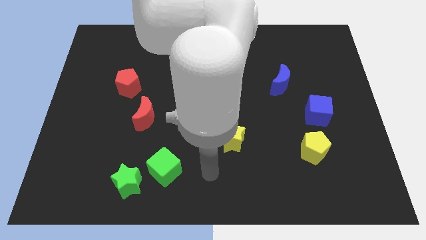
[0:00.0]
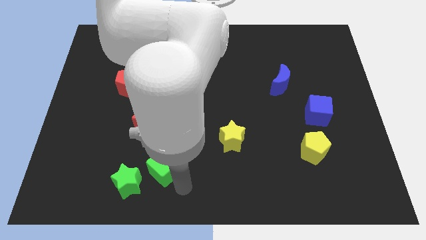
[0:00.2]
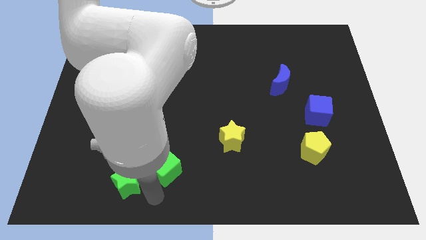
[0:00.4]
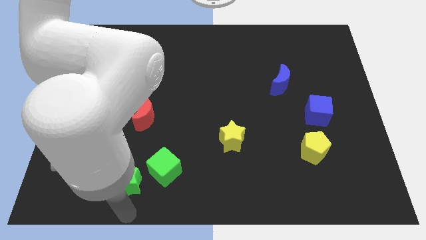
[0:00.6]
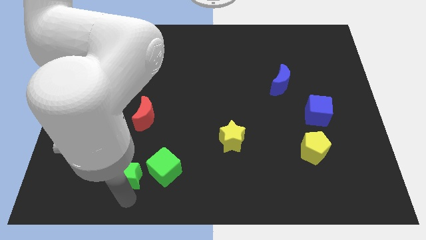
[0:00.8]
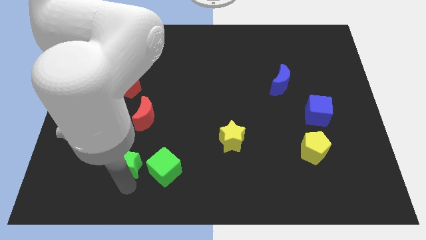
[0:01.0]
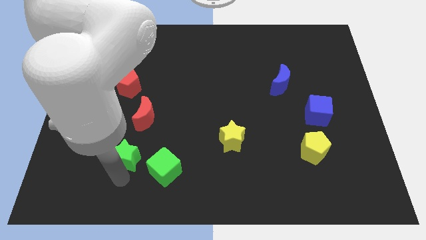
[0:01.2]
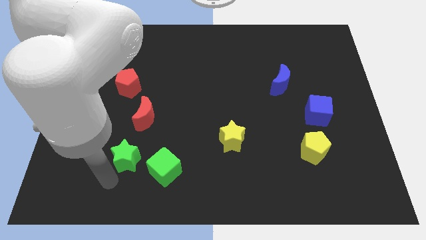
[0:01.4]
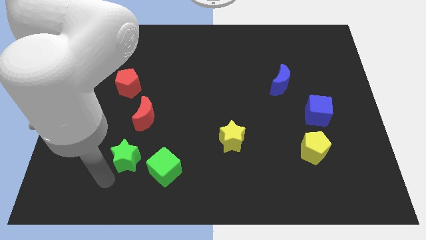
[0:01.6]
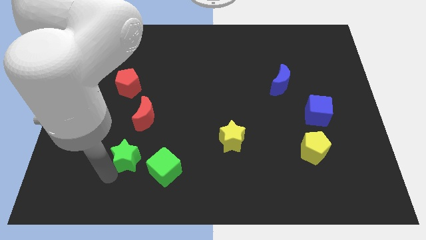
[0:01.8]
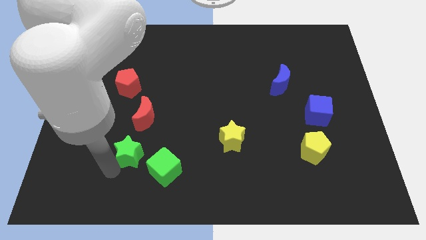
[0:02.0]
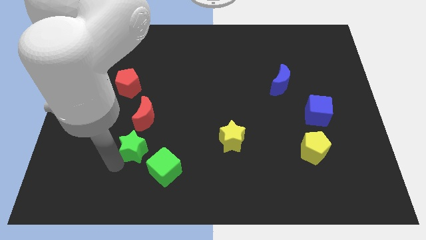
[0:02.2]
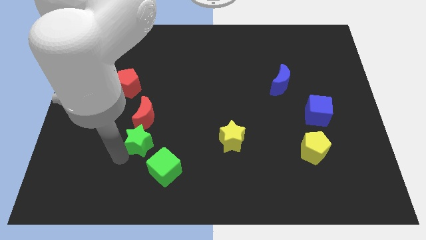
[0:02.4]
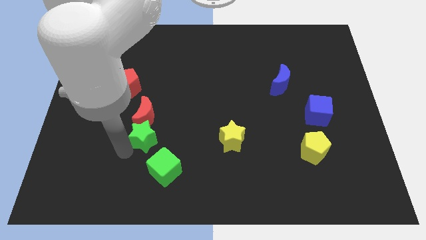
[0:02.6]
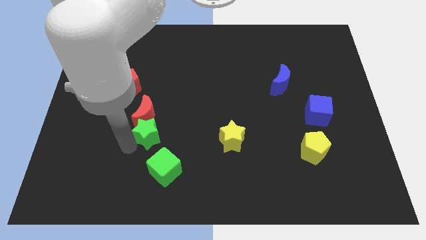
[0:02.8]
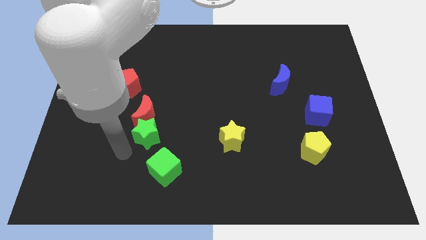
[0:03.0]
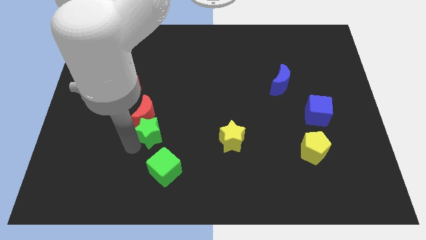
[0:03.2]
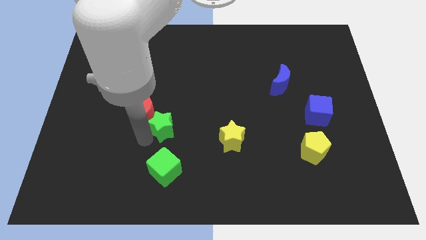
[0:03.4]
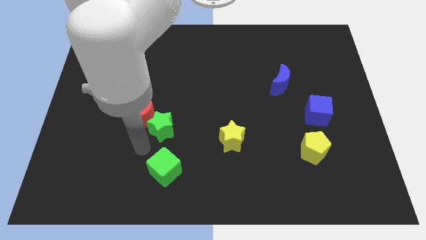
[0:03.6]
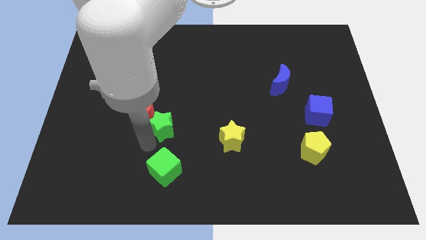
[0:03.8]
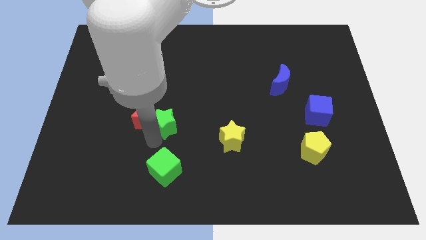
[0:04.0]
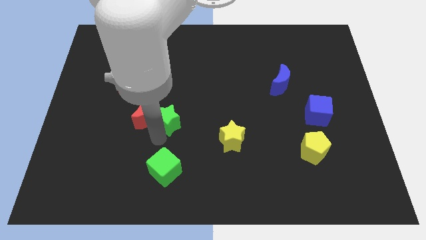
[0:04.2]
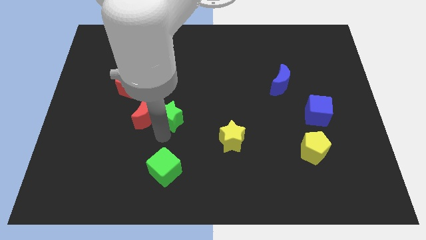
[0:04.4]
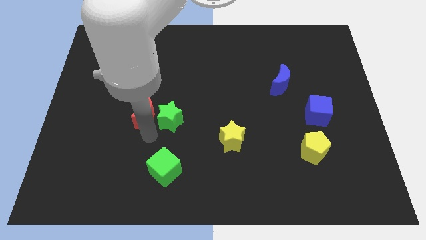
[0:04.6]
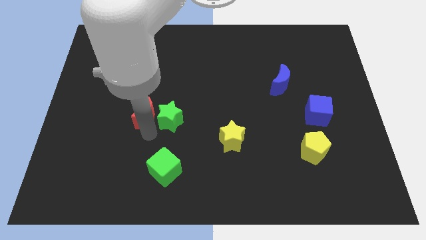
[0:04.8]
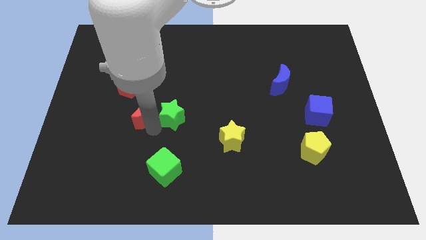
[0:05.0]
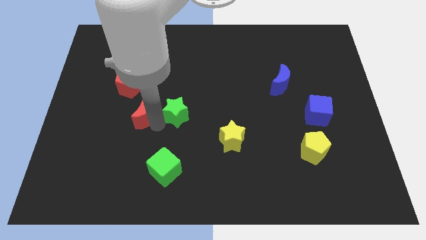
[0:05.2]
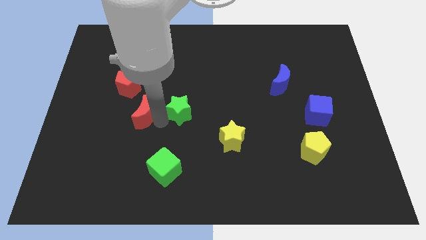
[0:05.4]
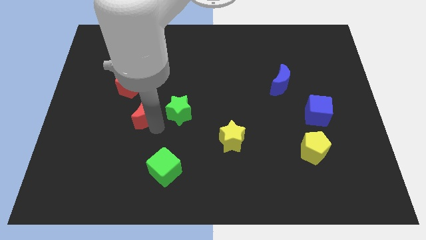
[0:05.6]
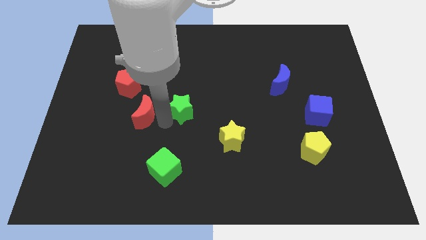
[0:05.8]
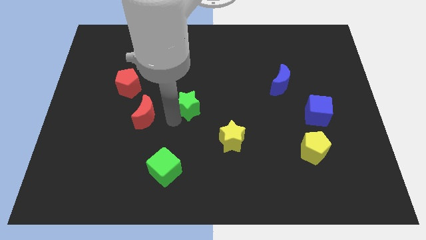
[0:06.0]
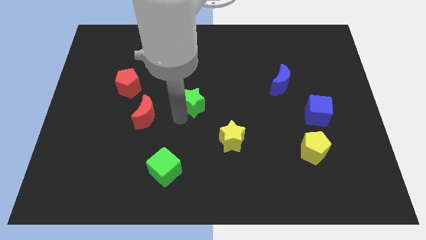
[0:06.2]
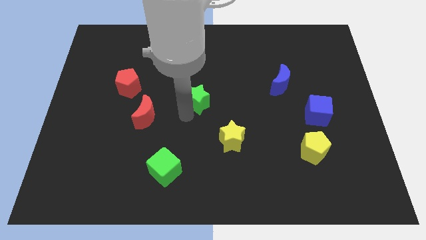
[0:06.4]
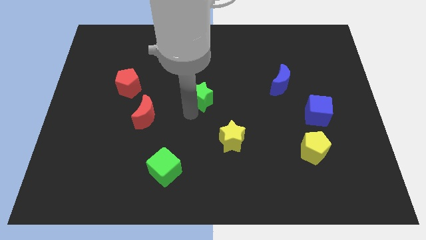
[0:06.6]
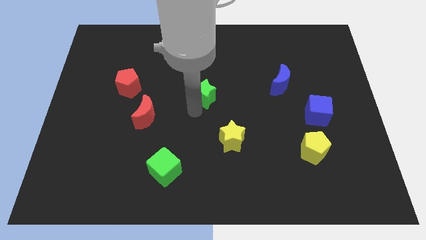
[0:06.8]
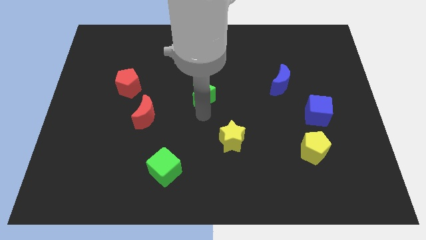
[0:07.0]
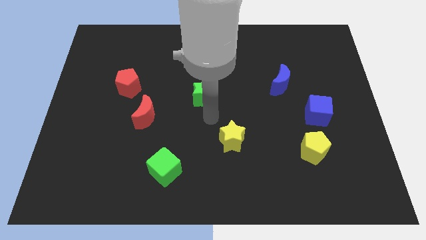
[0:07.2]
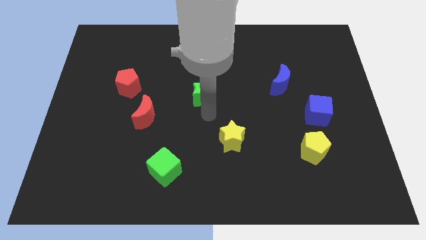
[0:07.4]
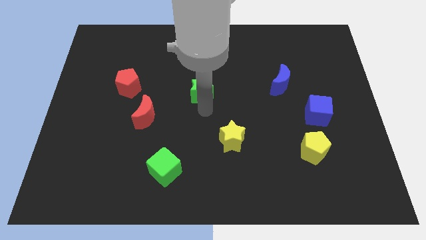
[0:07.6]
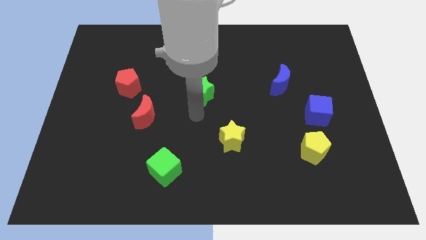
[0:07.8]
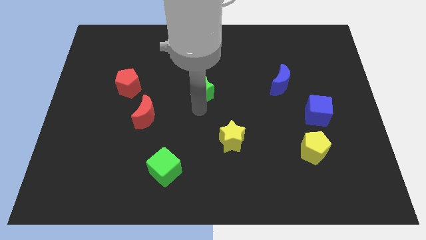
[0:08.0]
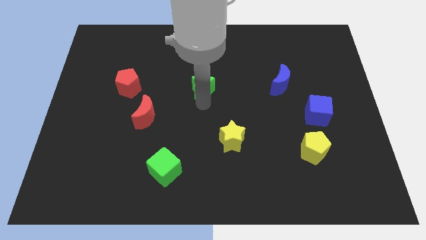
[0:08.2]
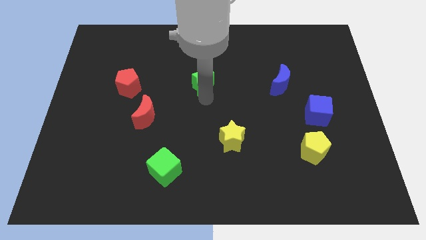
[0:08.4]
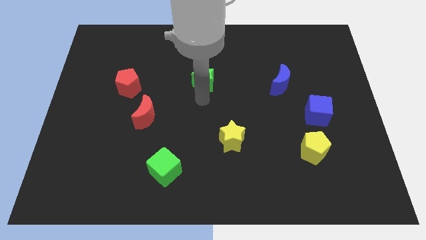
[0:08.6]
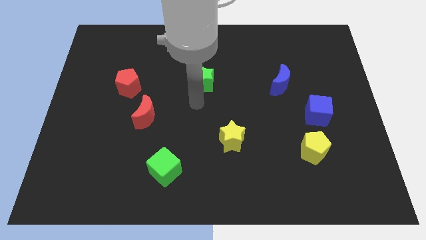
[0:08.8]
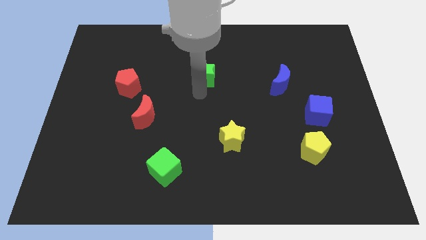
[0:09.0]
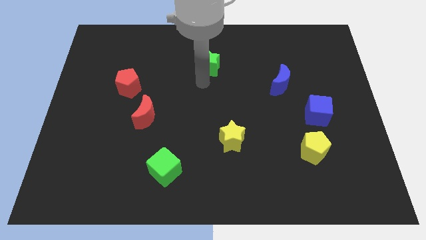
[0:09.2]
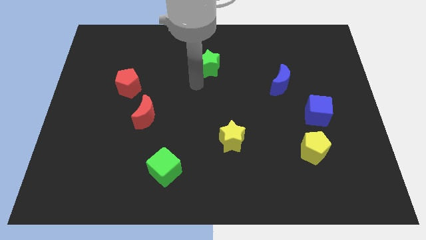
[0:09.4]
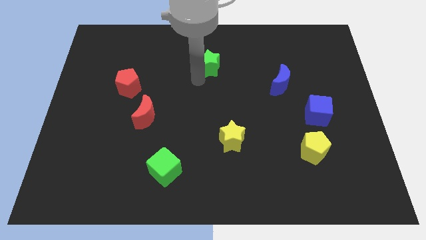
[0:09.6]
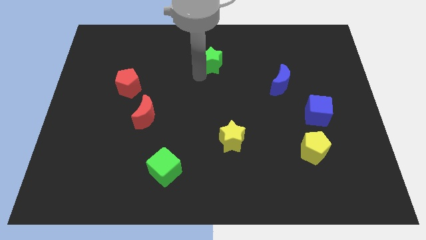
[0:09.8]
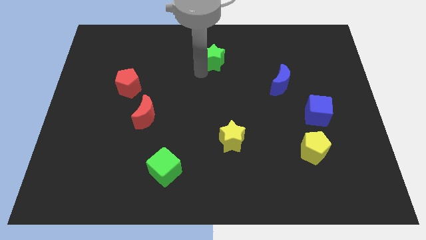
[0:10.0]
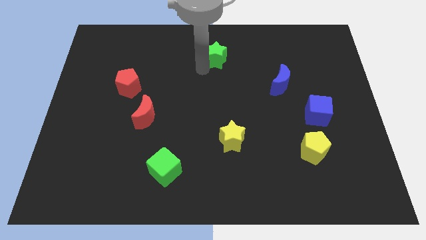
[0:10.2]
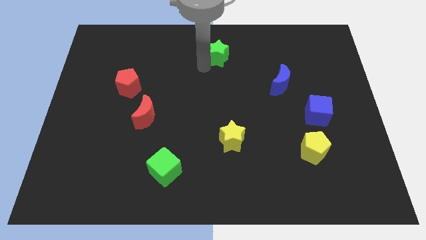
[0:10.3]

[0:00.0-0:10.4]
put the green star to the top

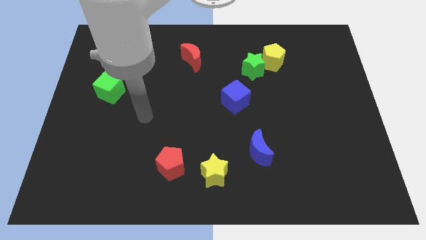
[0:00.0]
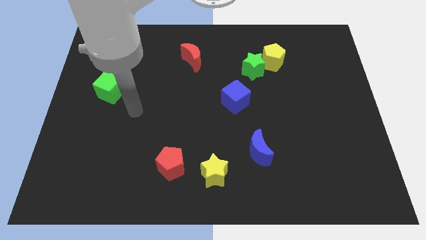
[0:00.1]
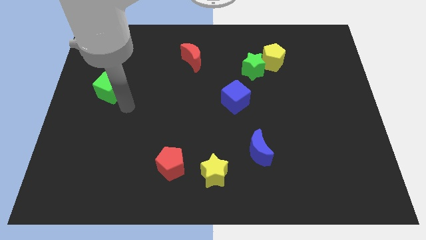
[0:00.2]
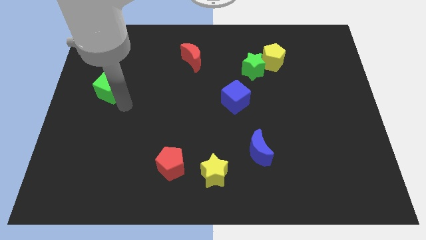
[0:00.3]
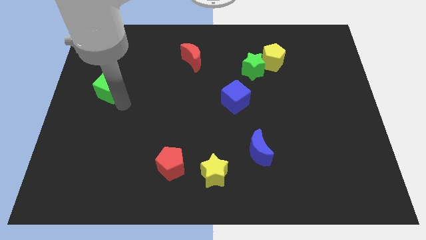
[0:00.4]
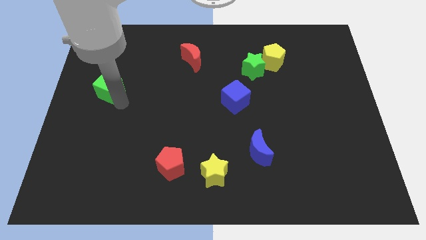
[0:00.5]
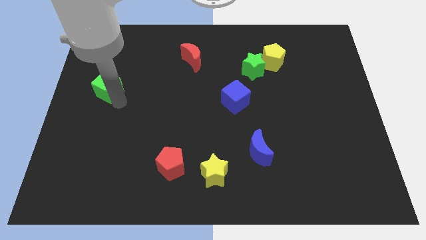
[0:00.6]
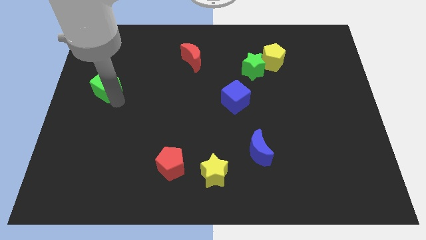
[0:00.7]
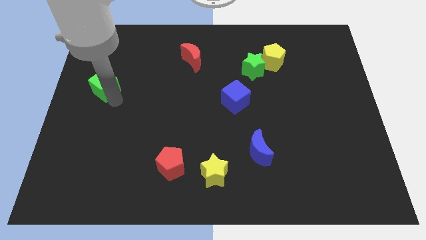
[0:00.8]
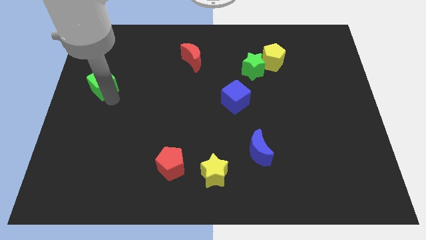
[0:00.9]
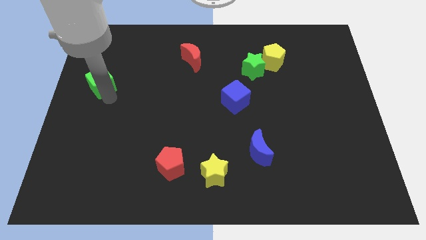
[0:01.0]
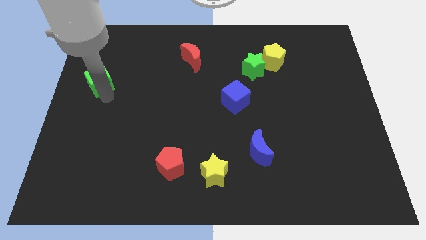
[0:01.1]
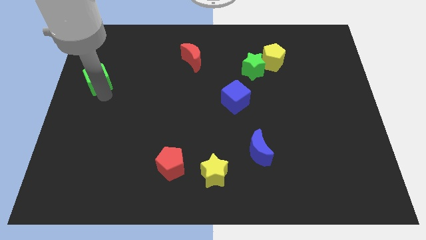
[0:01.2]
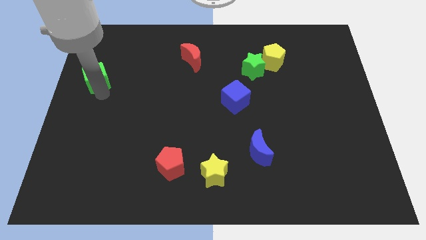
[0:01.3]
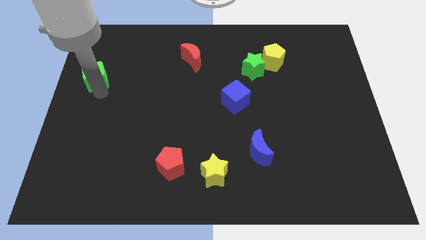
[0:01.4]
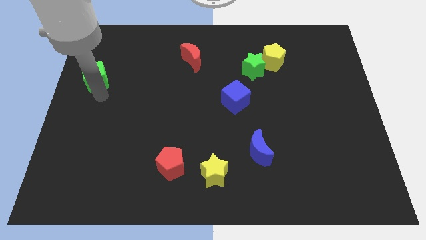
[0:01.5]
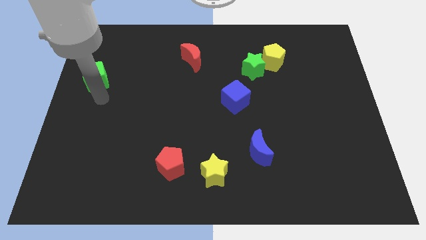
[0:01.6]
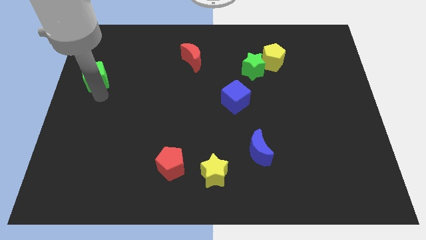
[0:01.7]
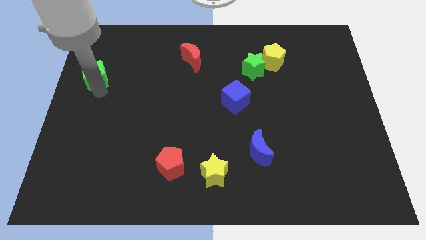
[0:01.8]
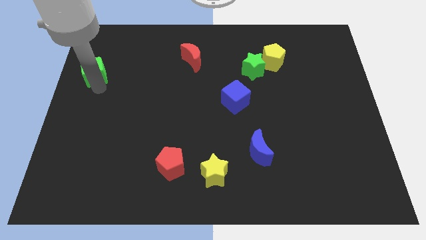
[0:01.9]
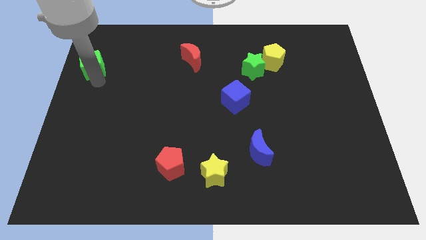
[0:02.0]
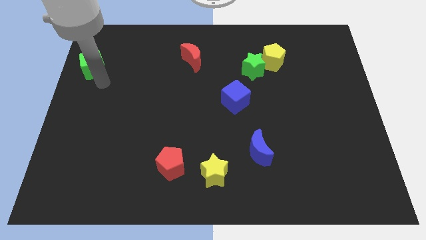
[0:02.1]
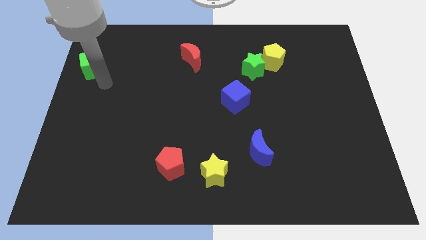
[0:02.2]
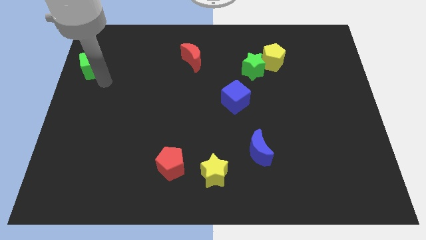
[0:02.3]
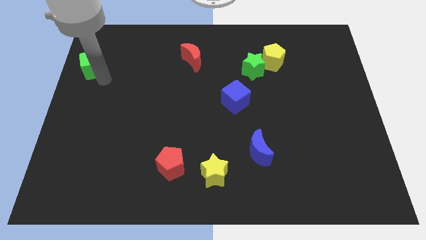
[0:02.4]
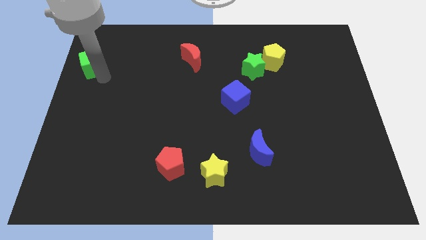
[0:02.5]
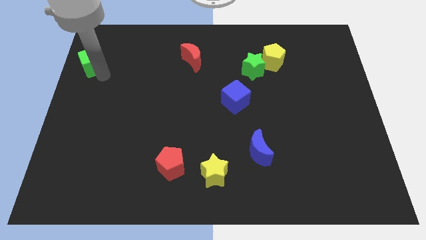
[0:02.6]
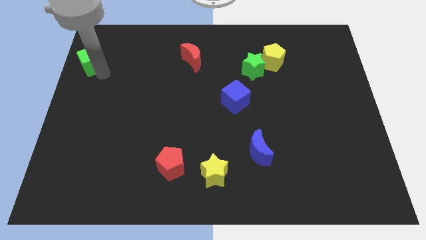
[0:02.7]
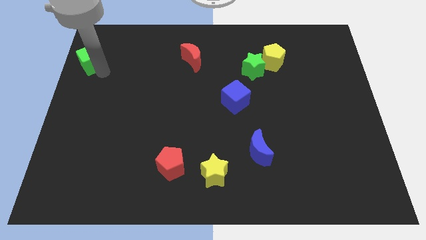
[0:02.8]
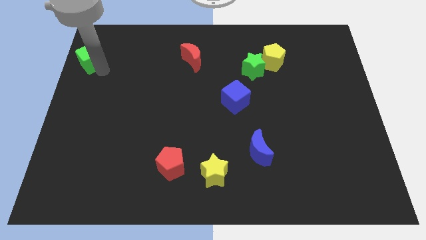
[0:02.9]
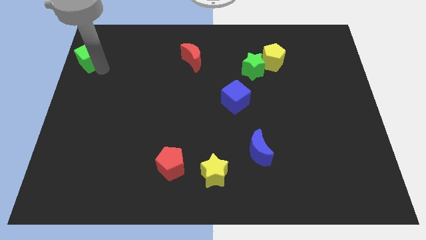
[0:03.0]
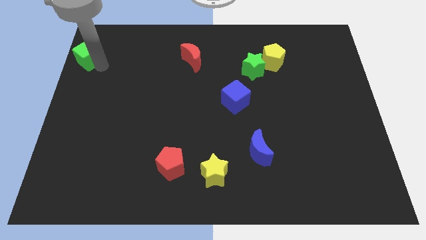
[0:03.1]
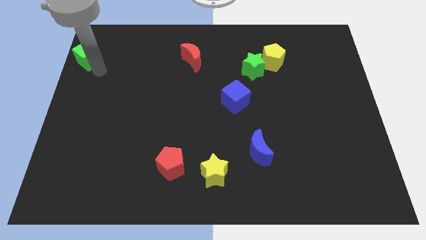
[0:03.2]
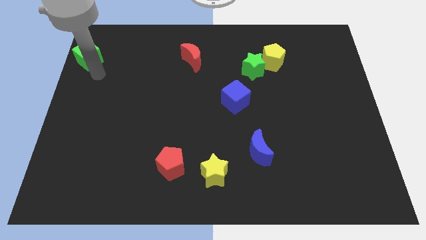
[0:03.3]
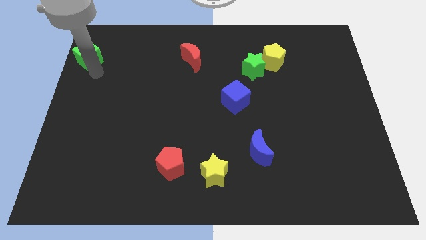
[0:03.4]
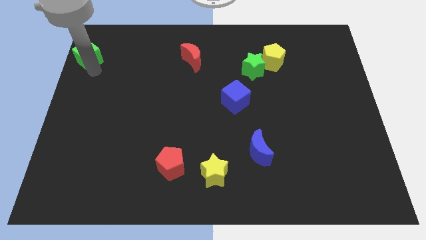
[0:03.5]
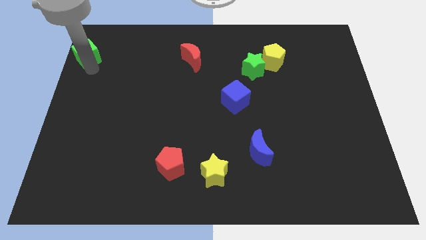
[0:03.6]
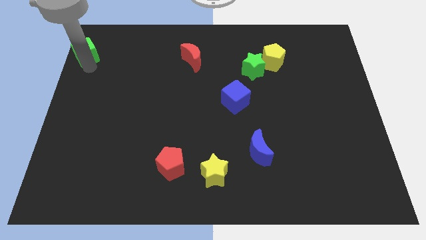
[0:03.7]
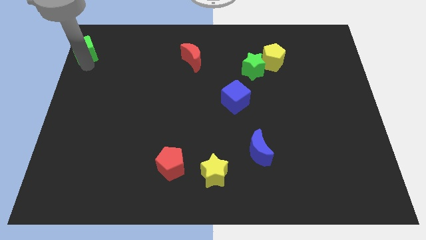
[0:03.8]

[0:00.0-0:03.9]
slide the green cube to the top left of the board
